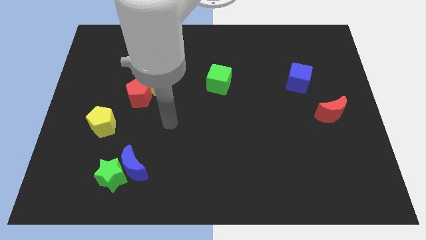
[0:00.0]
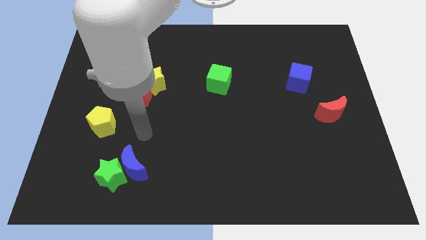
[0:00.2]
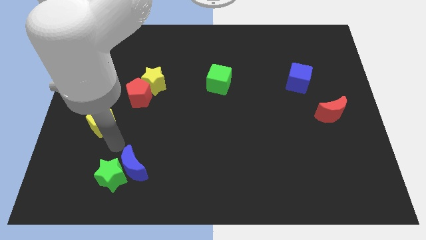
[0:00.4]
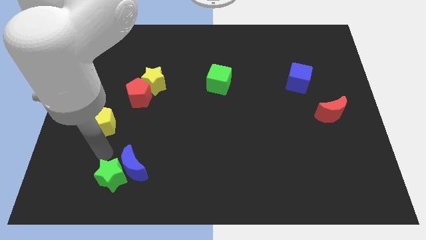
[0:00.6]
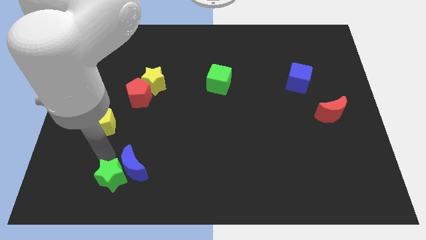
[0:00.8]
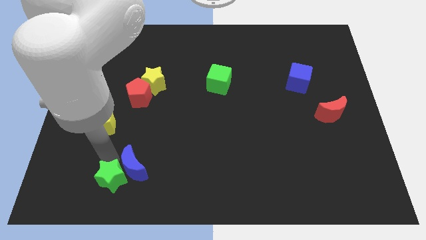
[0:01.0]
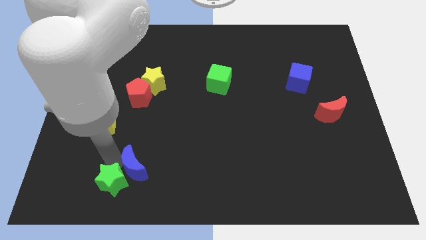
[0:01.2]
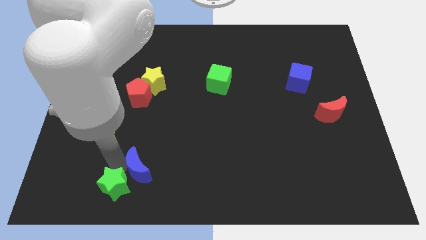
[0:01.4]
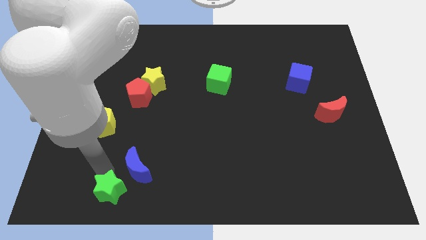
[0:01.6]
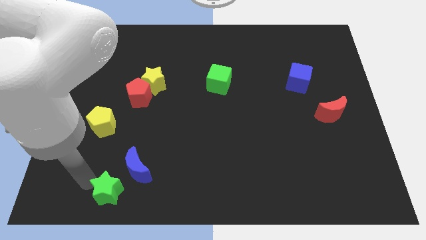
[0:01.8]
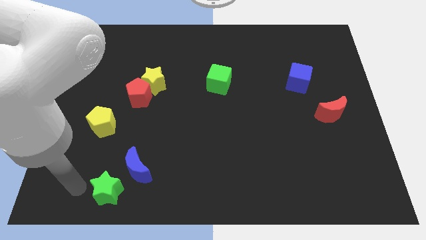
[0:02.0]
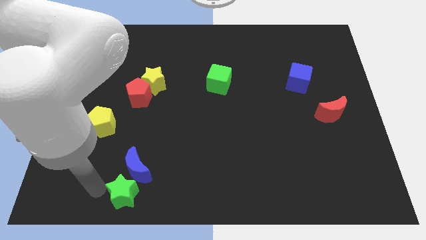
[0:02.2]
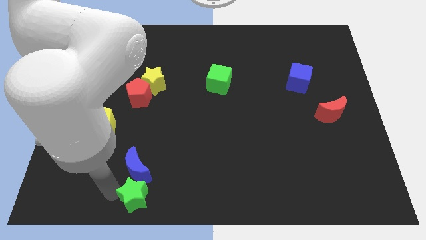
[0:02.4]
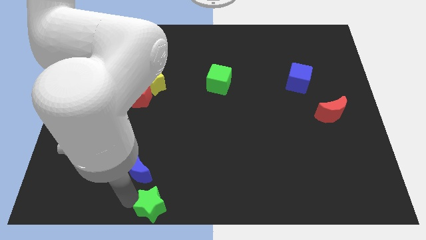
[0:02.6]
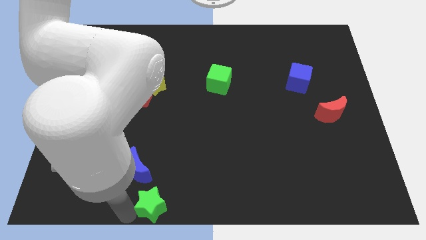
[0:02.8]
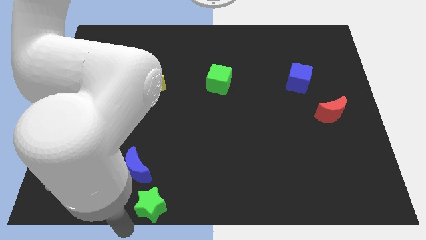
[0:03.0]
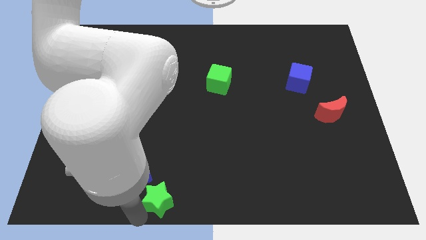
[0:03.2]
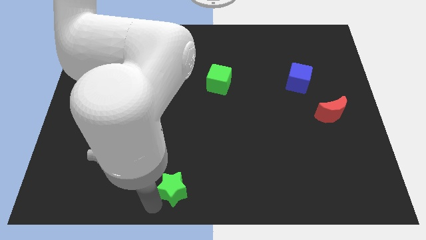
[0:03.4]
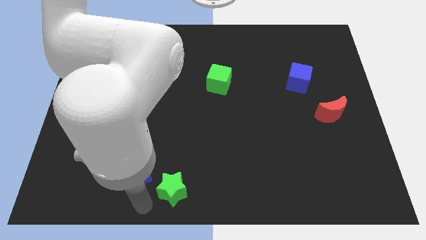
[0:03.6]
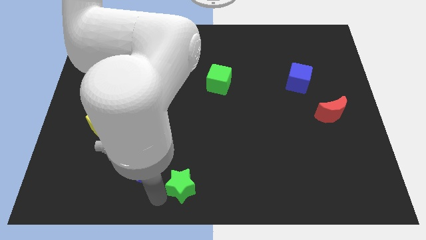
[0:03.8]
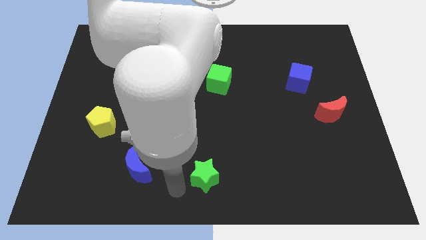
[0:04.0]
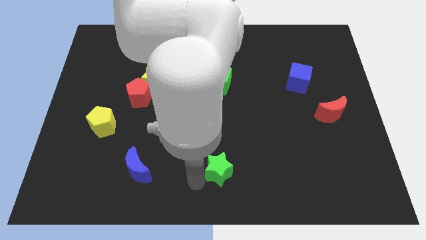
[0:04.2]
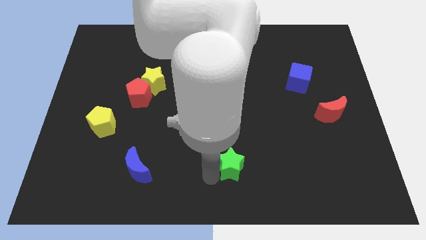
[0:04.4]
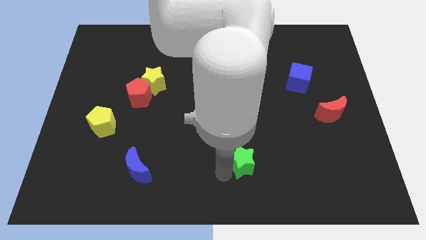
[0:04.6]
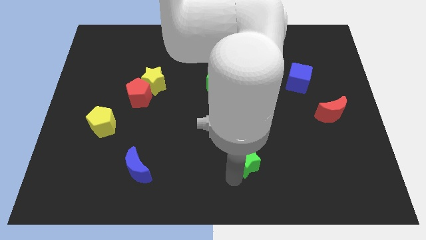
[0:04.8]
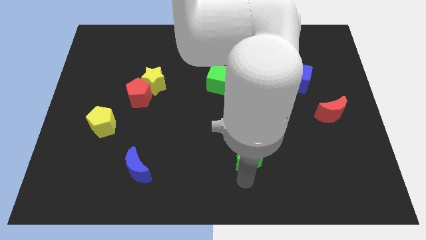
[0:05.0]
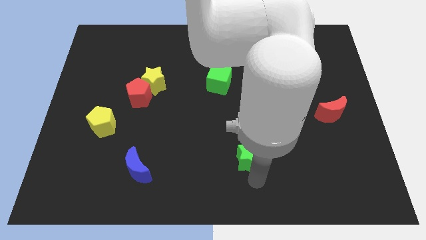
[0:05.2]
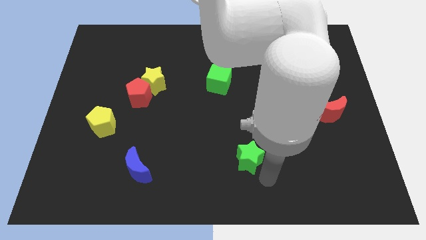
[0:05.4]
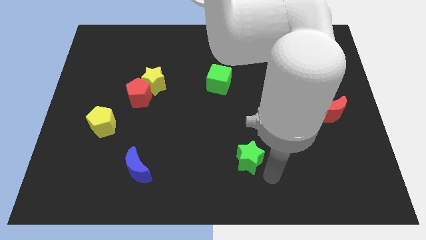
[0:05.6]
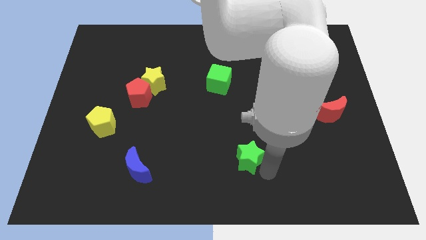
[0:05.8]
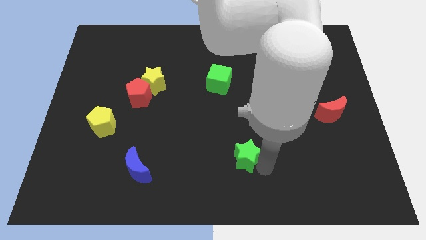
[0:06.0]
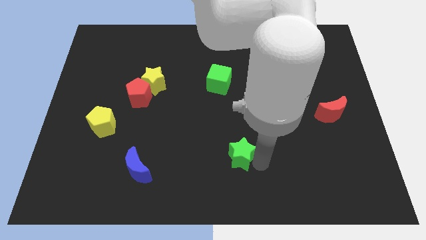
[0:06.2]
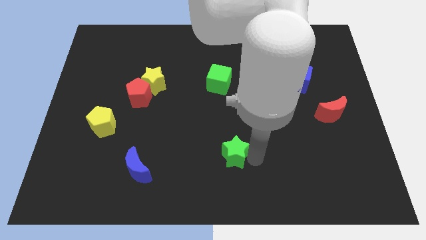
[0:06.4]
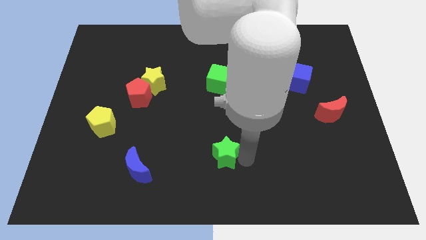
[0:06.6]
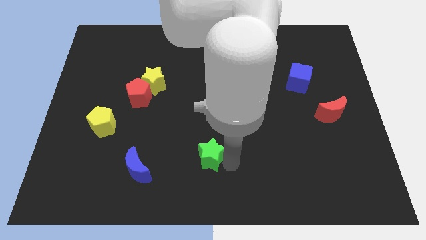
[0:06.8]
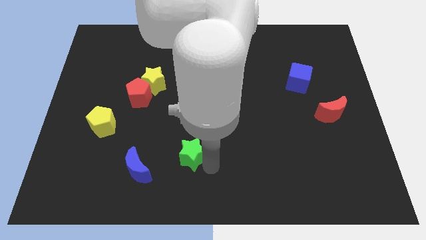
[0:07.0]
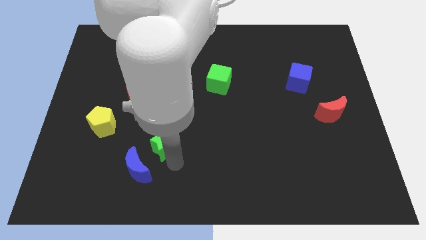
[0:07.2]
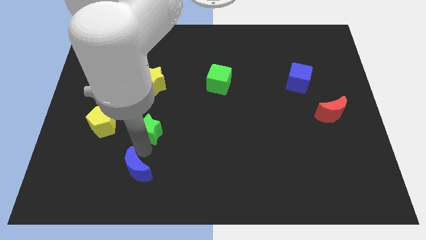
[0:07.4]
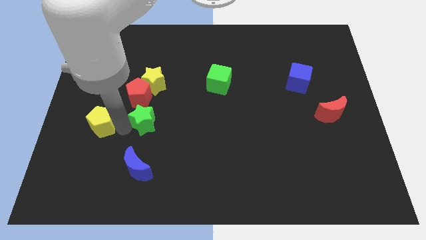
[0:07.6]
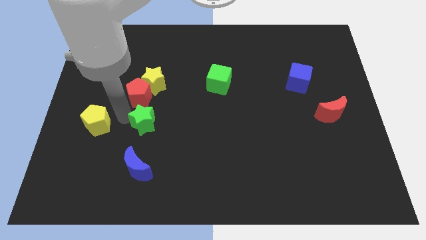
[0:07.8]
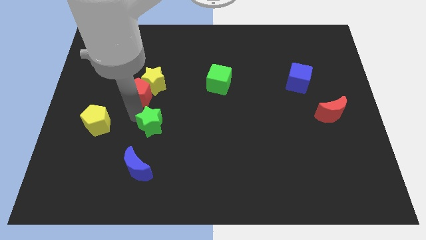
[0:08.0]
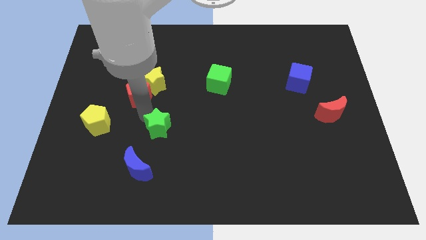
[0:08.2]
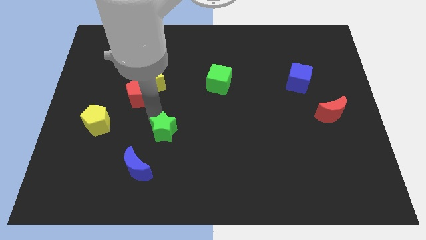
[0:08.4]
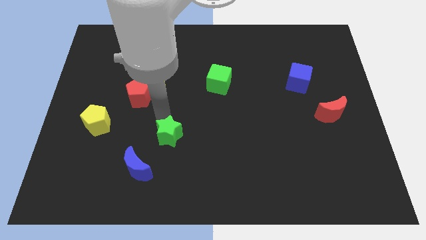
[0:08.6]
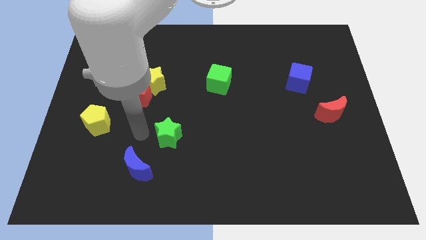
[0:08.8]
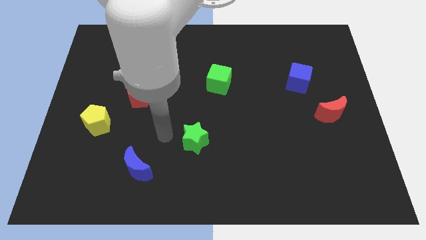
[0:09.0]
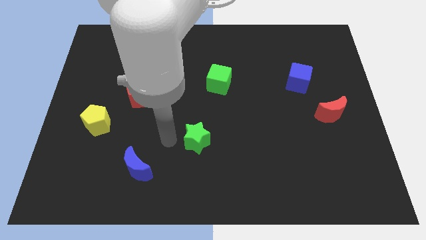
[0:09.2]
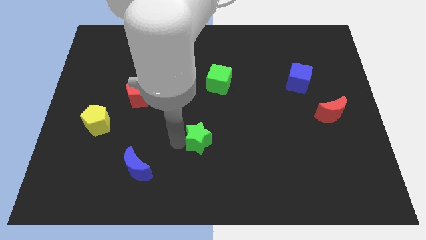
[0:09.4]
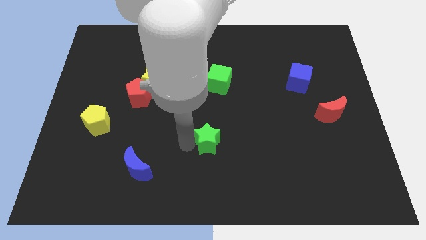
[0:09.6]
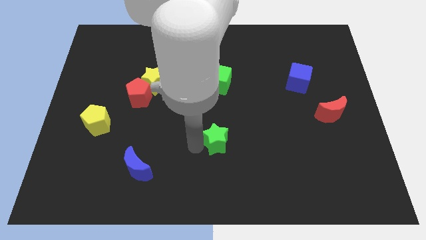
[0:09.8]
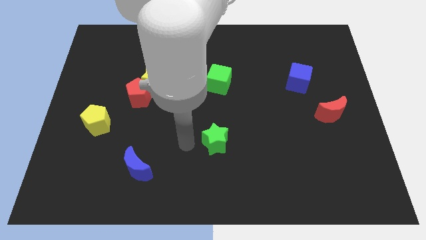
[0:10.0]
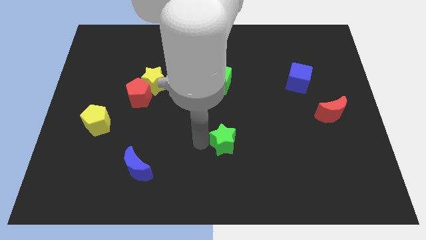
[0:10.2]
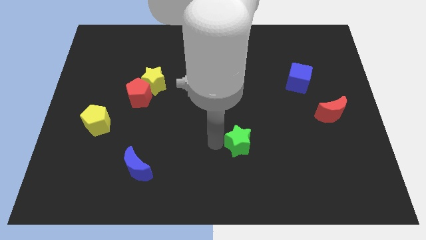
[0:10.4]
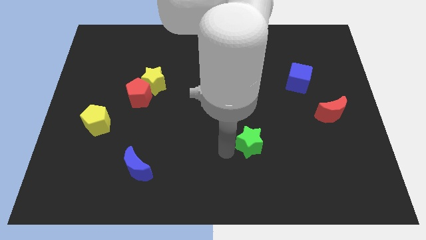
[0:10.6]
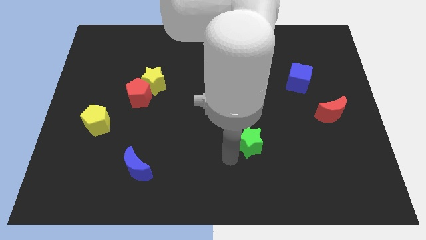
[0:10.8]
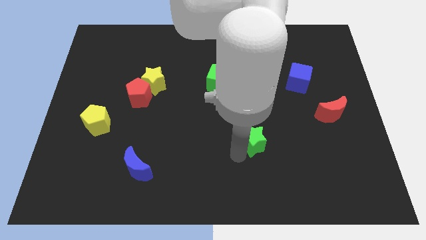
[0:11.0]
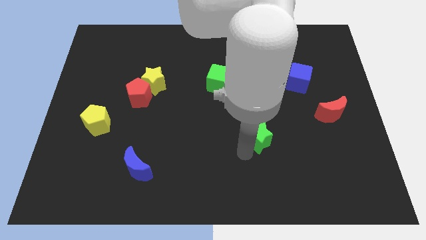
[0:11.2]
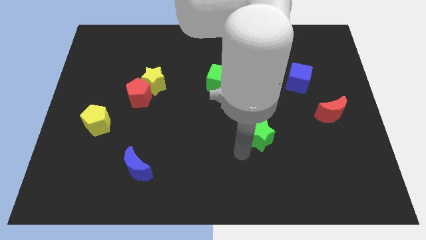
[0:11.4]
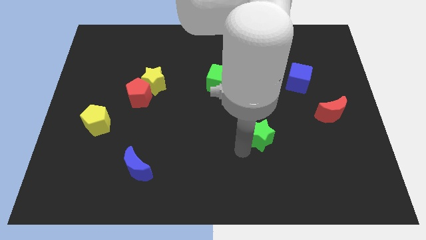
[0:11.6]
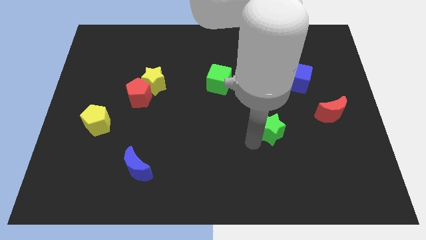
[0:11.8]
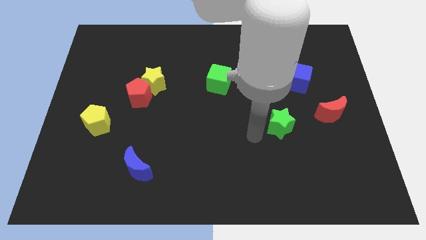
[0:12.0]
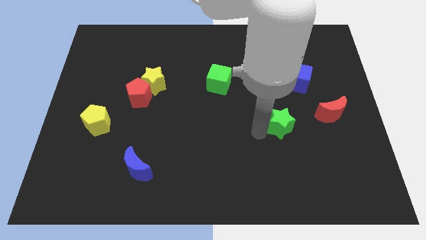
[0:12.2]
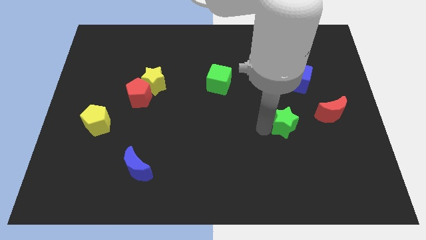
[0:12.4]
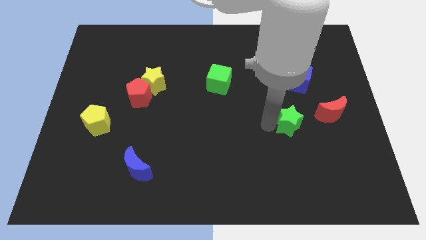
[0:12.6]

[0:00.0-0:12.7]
push the green star to the bottom side of the blue cube

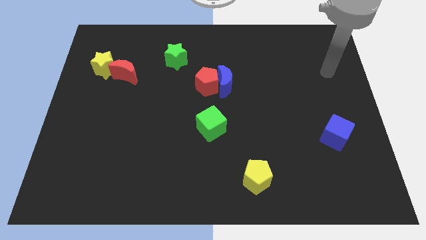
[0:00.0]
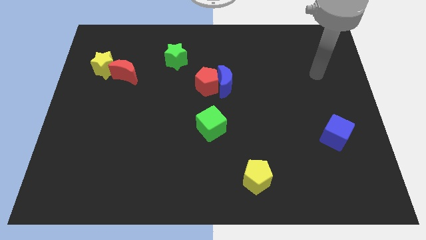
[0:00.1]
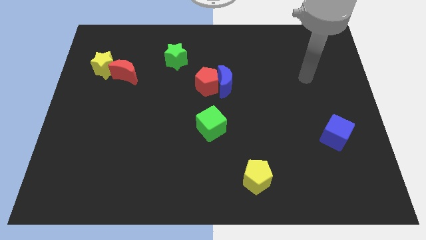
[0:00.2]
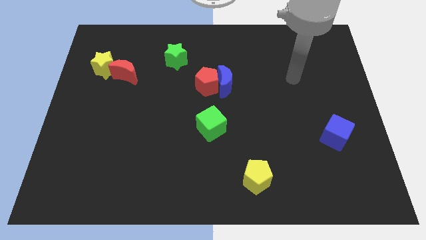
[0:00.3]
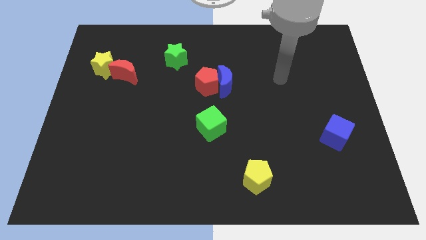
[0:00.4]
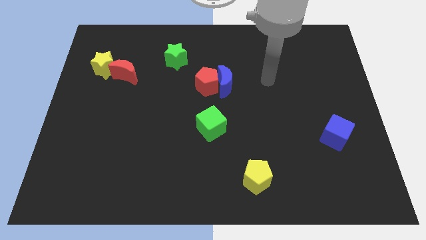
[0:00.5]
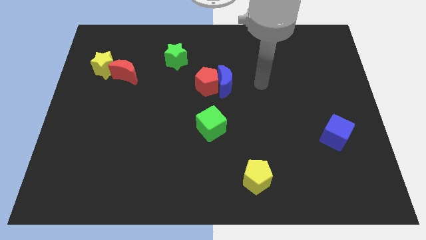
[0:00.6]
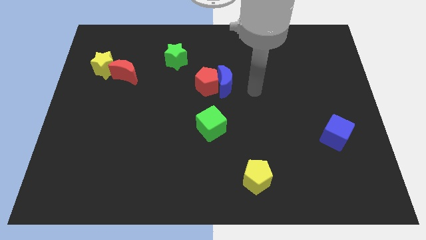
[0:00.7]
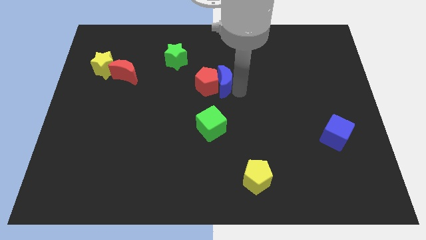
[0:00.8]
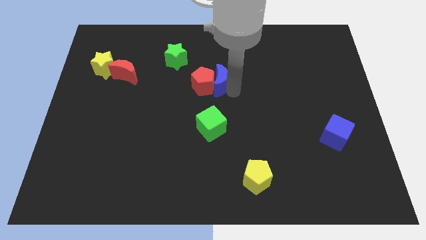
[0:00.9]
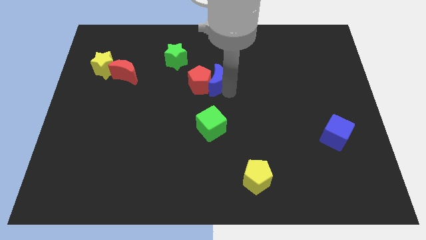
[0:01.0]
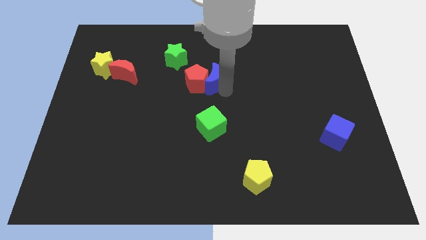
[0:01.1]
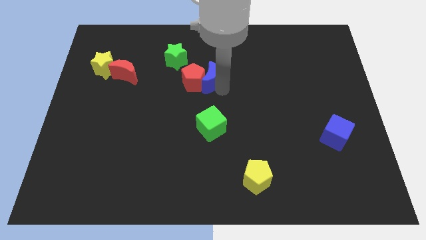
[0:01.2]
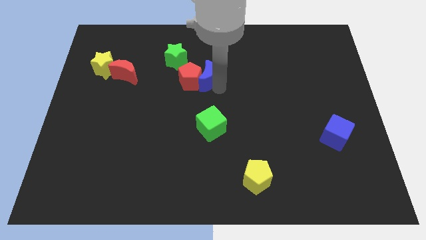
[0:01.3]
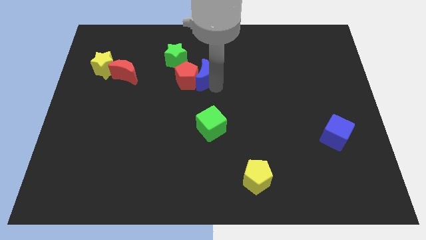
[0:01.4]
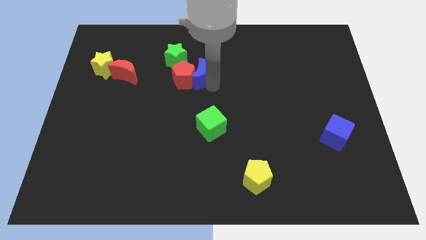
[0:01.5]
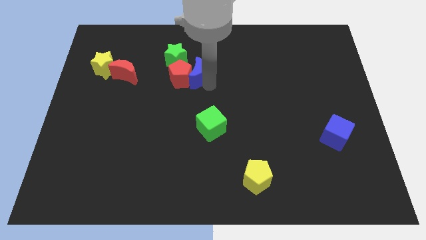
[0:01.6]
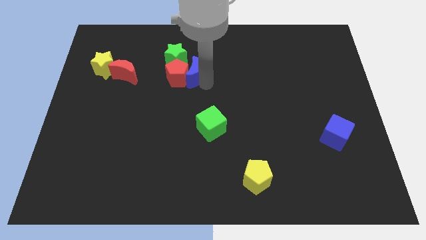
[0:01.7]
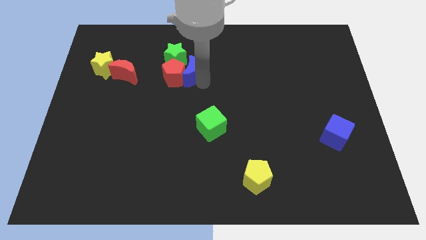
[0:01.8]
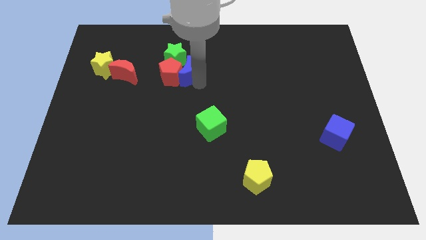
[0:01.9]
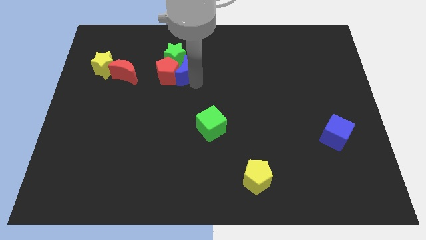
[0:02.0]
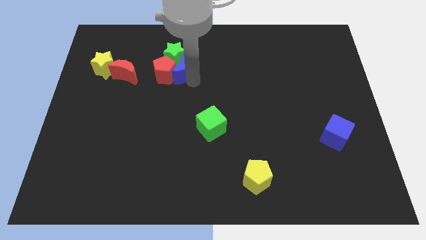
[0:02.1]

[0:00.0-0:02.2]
slide the red pentagon right of the yellow star
